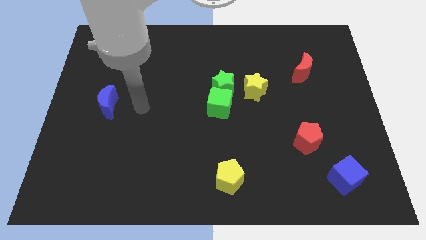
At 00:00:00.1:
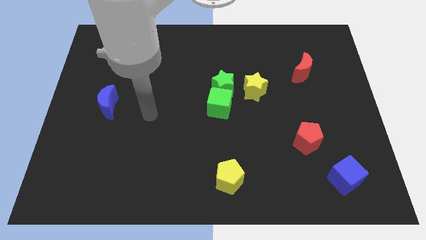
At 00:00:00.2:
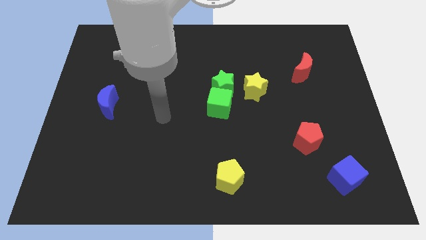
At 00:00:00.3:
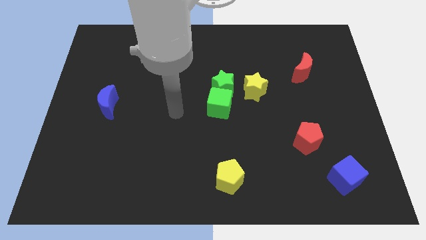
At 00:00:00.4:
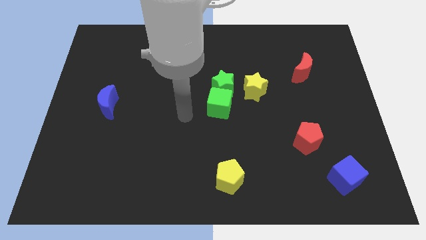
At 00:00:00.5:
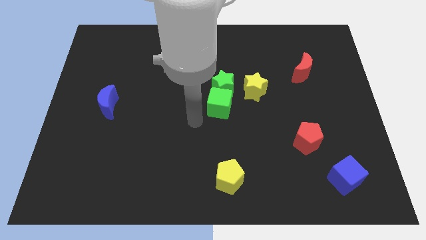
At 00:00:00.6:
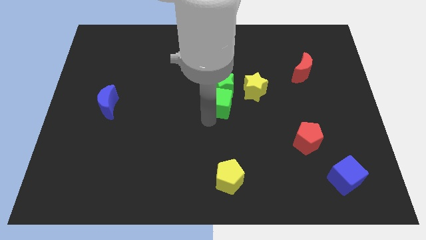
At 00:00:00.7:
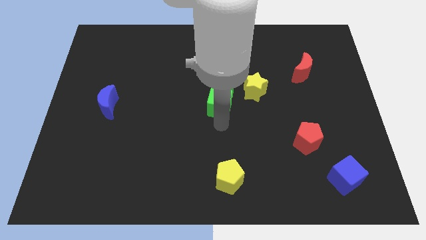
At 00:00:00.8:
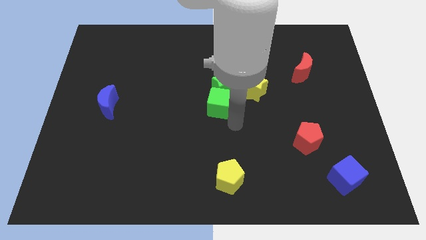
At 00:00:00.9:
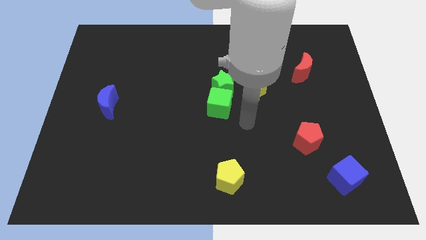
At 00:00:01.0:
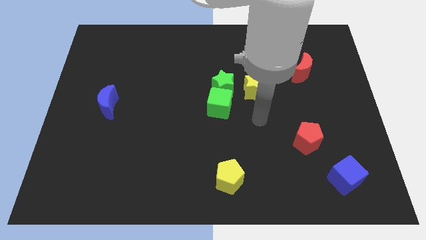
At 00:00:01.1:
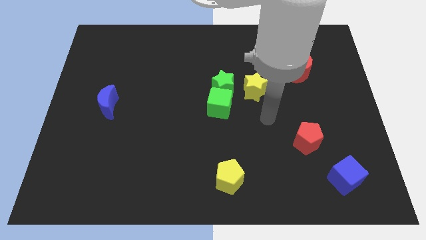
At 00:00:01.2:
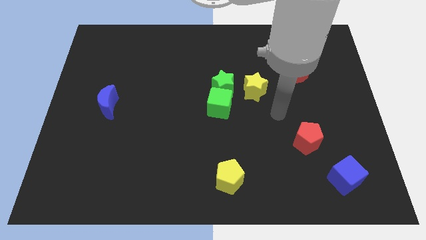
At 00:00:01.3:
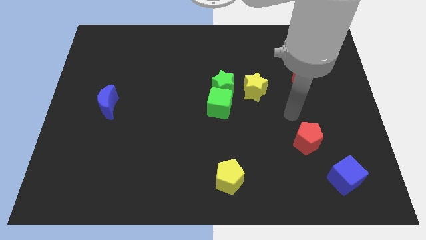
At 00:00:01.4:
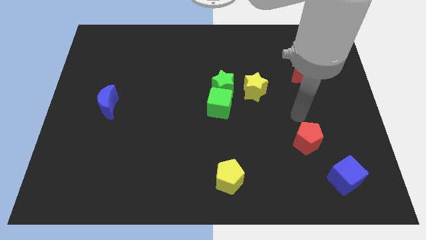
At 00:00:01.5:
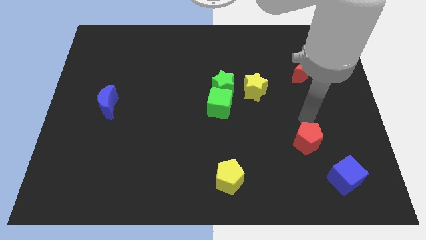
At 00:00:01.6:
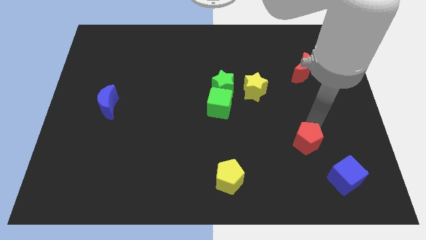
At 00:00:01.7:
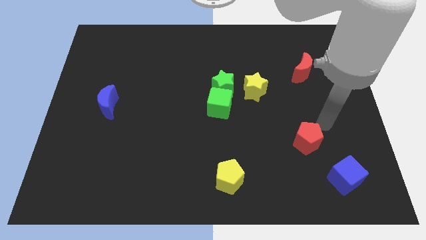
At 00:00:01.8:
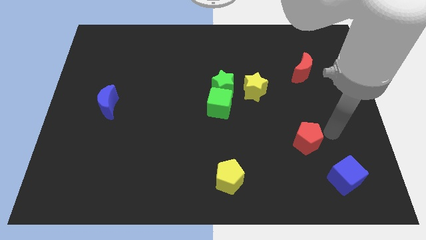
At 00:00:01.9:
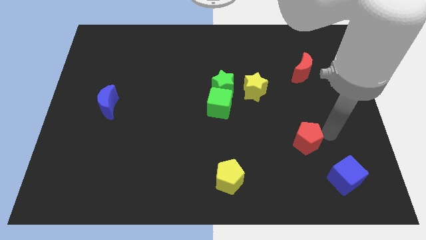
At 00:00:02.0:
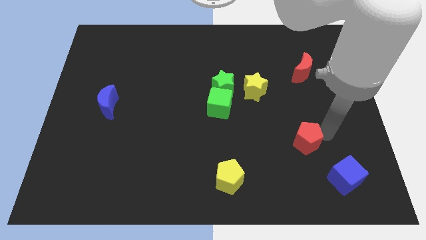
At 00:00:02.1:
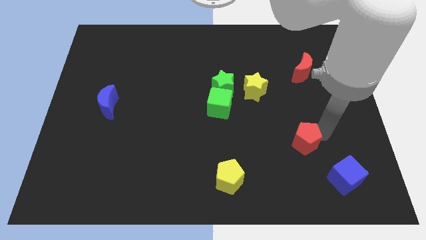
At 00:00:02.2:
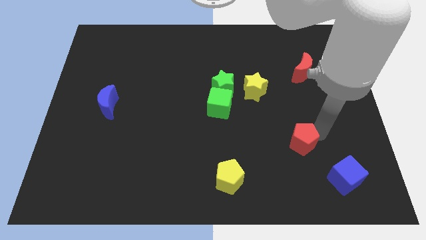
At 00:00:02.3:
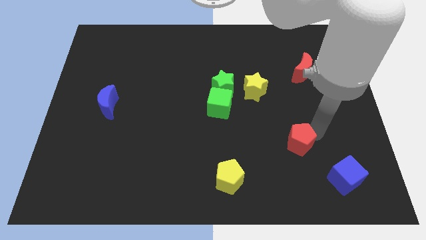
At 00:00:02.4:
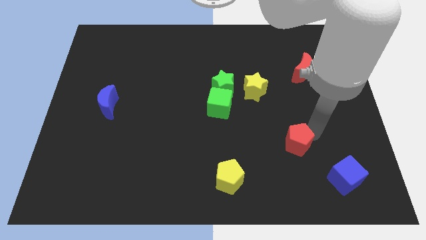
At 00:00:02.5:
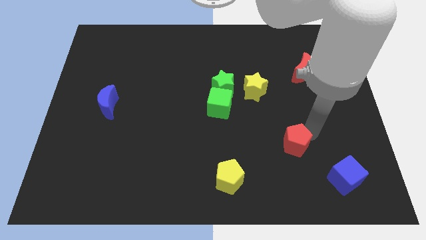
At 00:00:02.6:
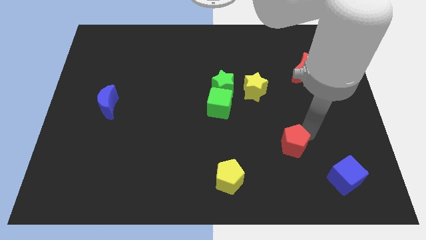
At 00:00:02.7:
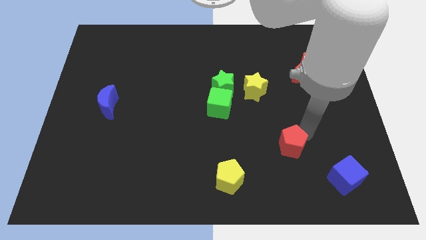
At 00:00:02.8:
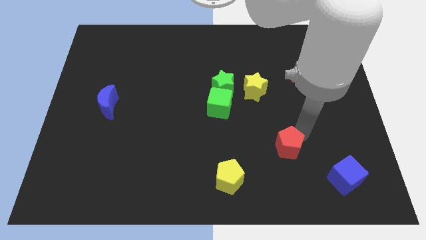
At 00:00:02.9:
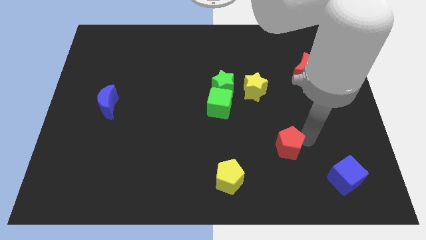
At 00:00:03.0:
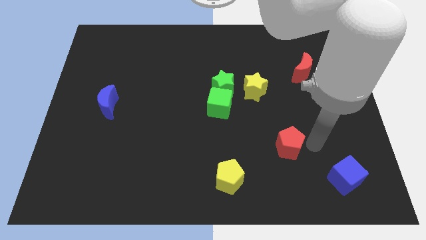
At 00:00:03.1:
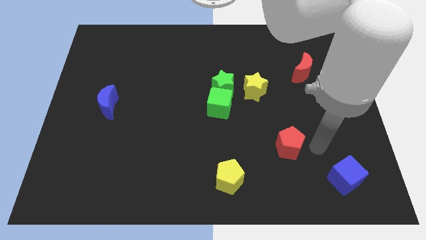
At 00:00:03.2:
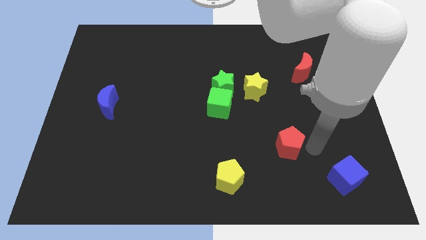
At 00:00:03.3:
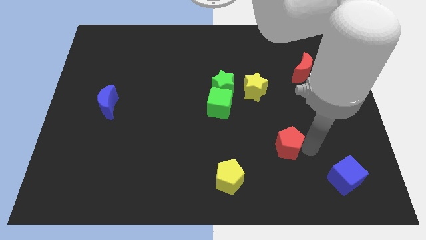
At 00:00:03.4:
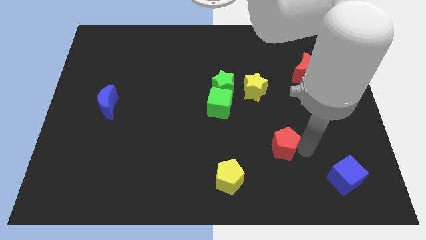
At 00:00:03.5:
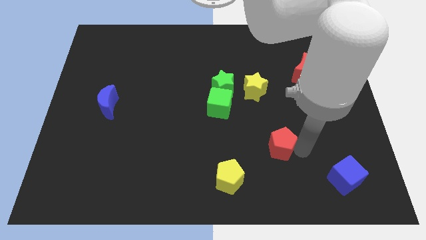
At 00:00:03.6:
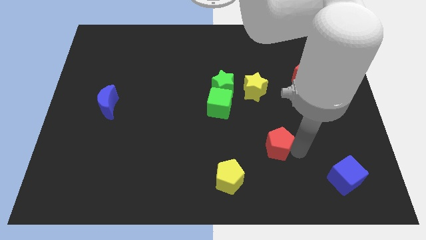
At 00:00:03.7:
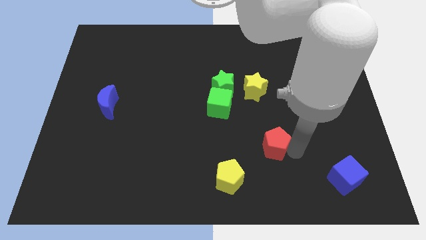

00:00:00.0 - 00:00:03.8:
slightly push the red pentagon left

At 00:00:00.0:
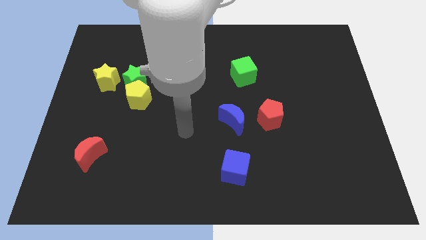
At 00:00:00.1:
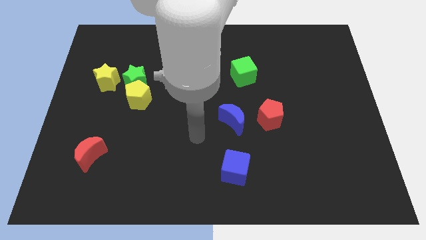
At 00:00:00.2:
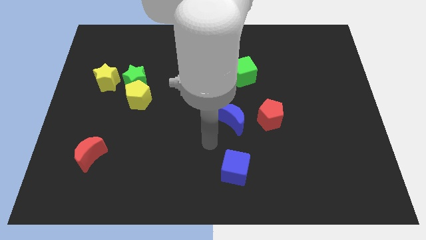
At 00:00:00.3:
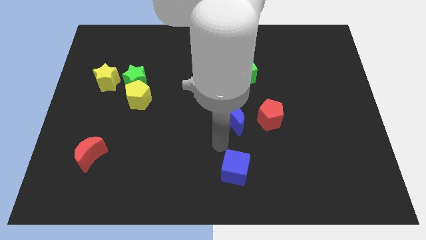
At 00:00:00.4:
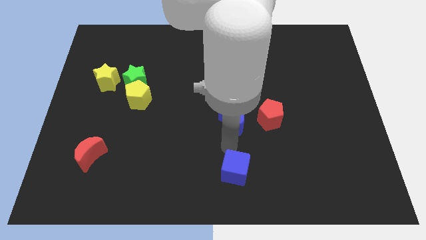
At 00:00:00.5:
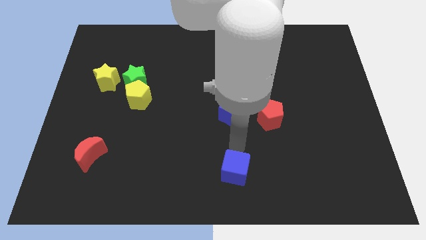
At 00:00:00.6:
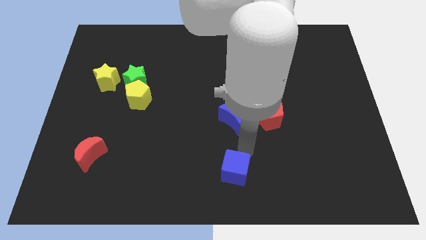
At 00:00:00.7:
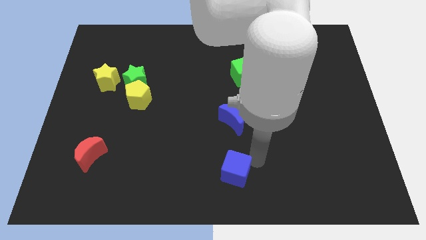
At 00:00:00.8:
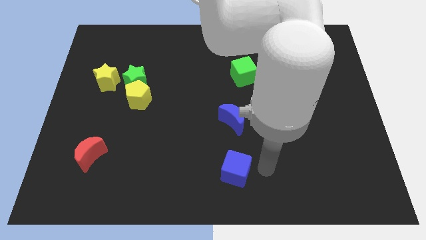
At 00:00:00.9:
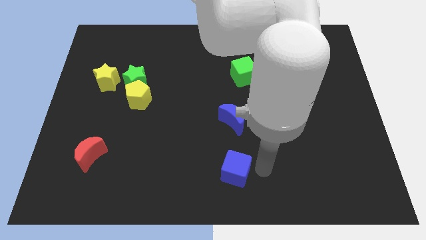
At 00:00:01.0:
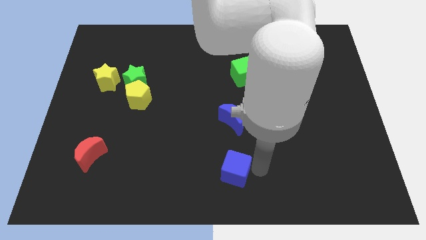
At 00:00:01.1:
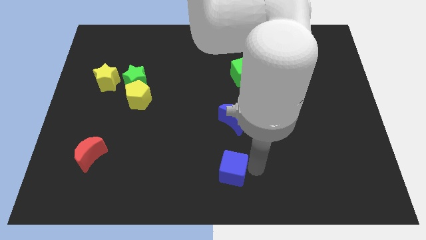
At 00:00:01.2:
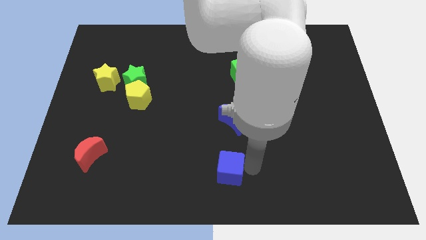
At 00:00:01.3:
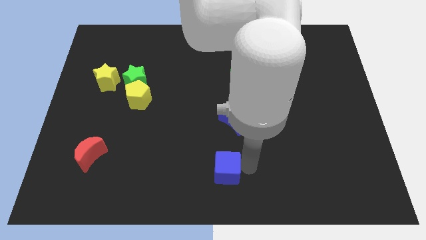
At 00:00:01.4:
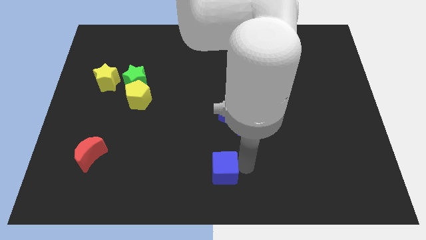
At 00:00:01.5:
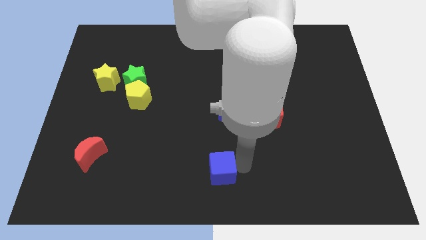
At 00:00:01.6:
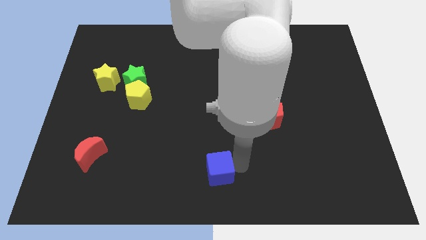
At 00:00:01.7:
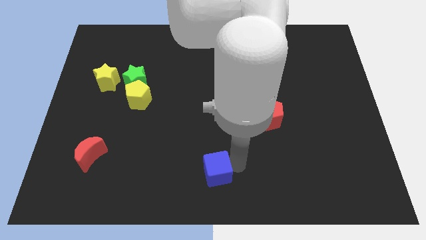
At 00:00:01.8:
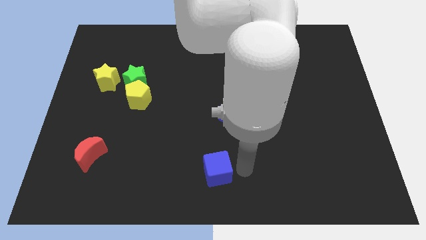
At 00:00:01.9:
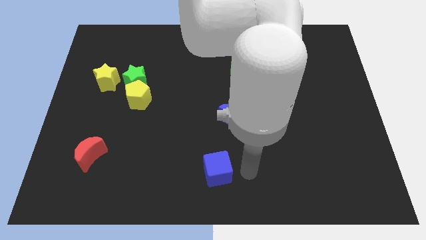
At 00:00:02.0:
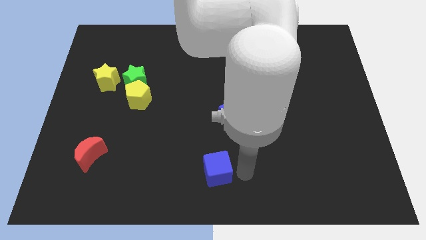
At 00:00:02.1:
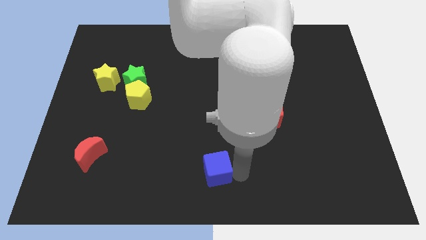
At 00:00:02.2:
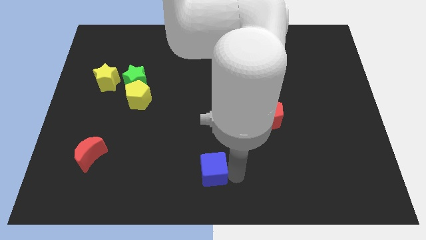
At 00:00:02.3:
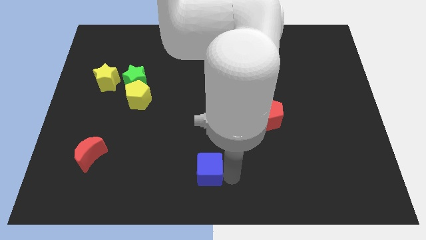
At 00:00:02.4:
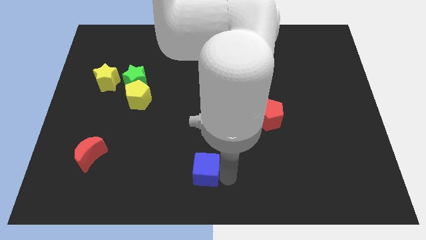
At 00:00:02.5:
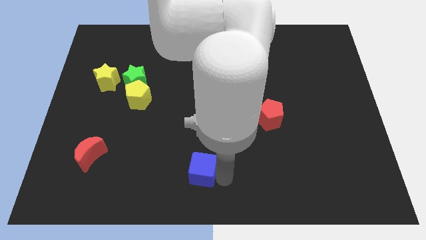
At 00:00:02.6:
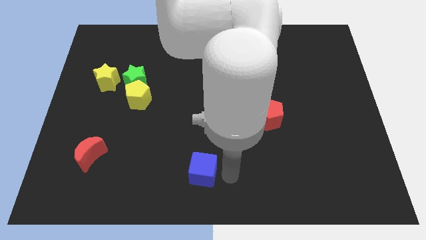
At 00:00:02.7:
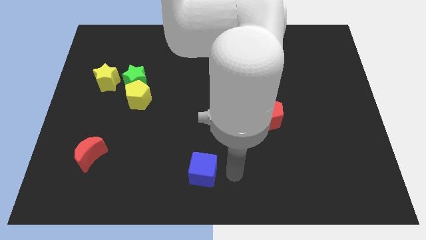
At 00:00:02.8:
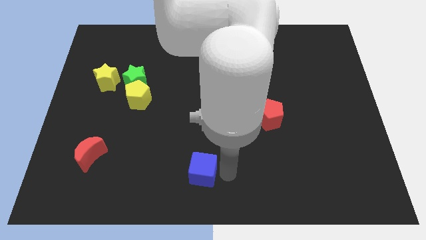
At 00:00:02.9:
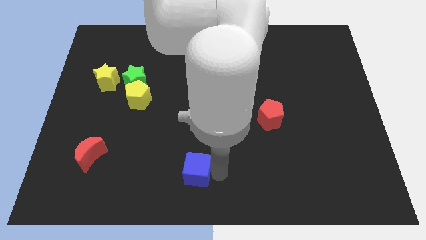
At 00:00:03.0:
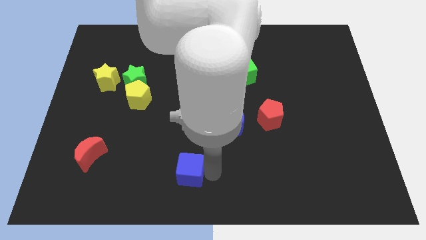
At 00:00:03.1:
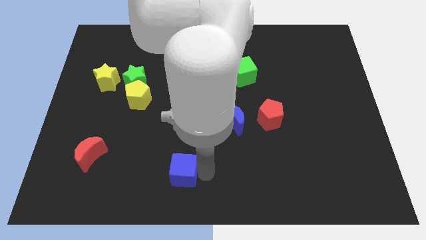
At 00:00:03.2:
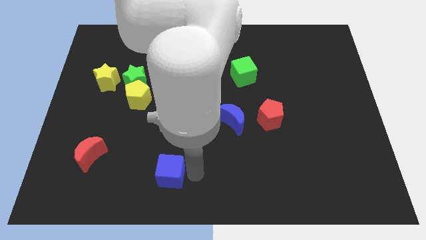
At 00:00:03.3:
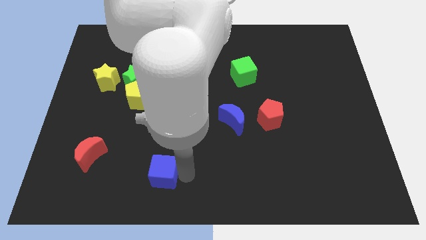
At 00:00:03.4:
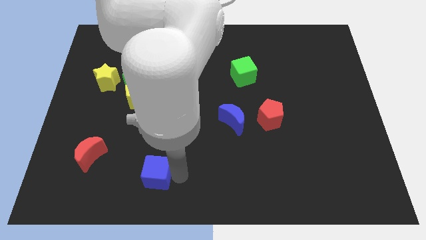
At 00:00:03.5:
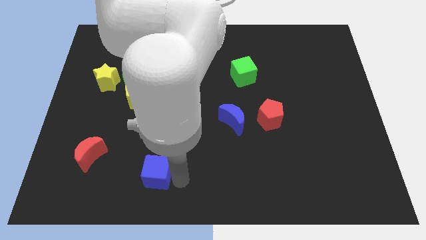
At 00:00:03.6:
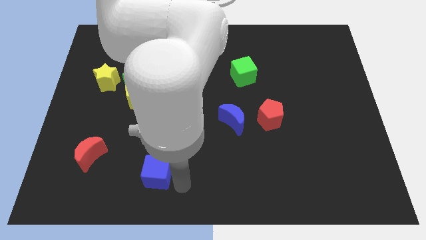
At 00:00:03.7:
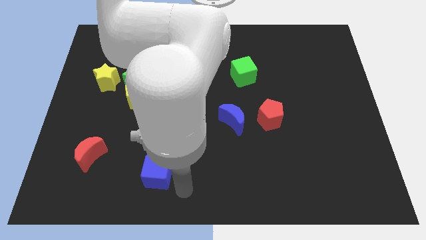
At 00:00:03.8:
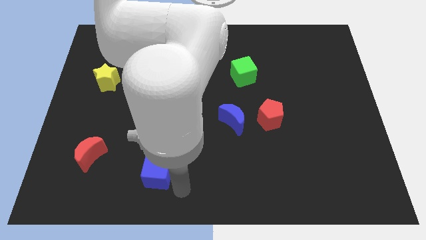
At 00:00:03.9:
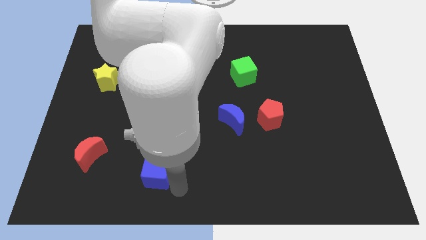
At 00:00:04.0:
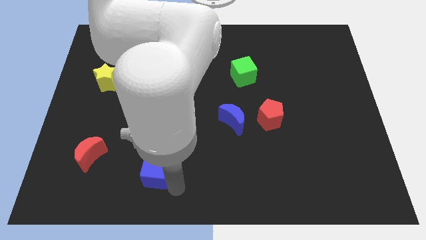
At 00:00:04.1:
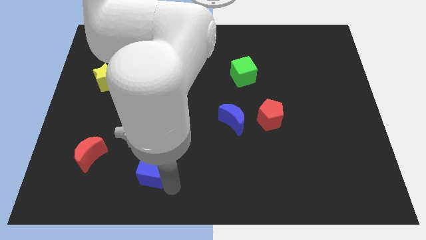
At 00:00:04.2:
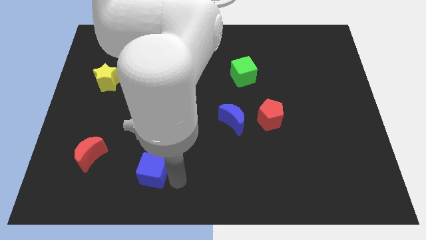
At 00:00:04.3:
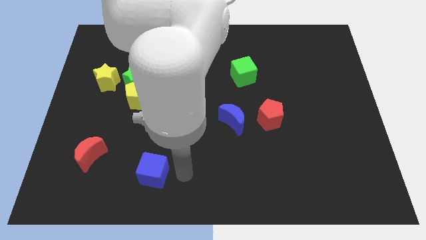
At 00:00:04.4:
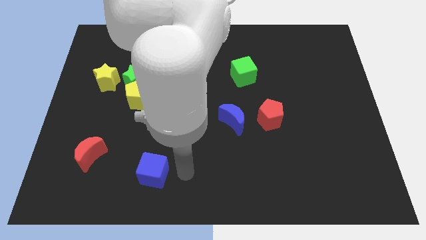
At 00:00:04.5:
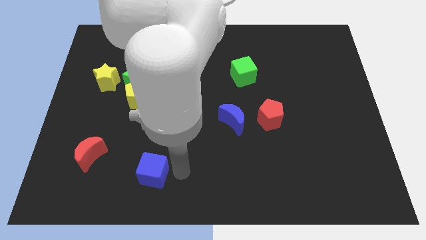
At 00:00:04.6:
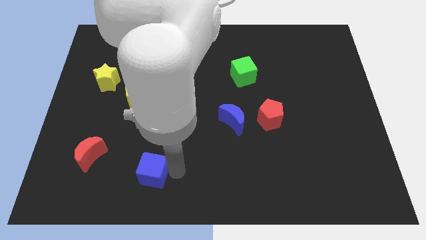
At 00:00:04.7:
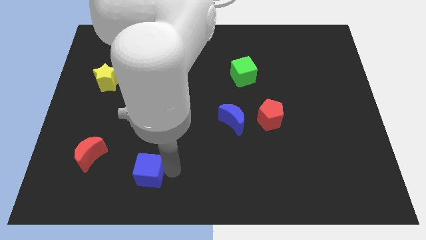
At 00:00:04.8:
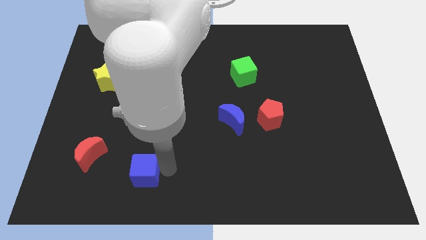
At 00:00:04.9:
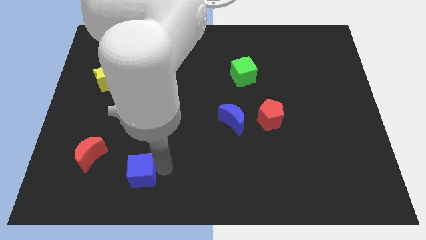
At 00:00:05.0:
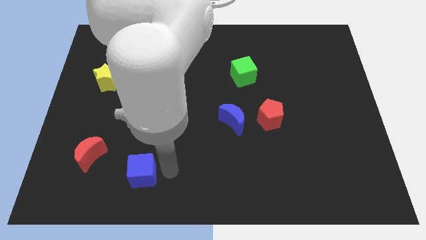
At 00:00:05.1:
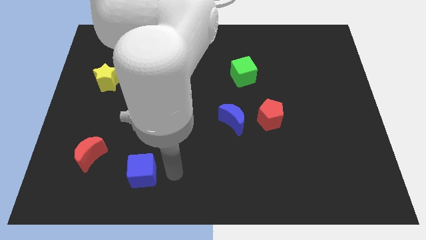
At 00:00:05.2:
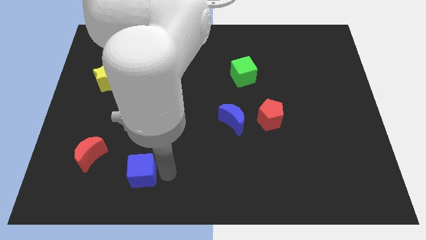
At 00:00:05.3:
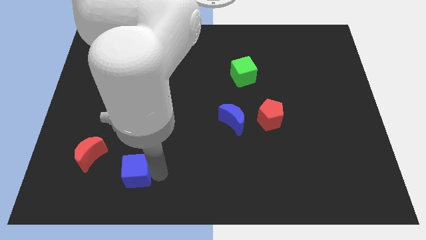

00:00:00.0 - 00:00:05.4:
push the blue cube to the left
